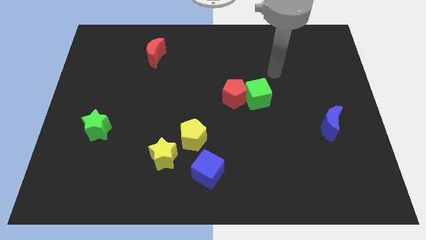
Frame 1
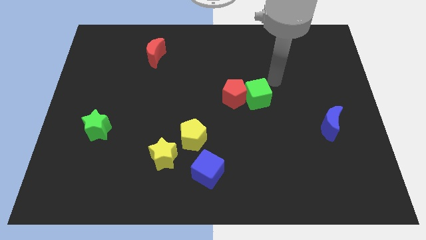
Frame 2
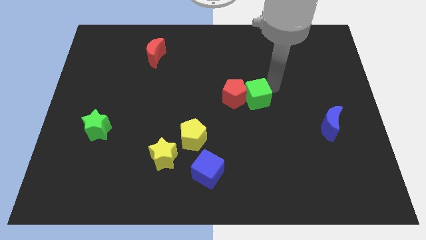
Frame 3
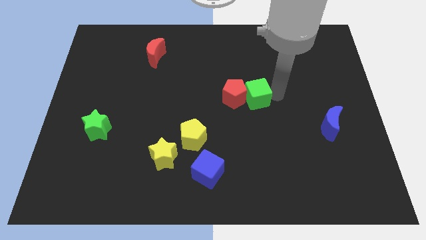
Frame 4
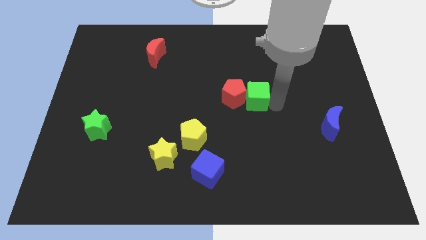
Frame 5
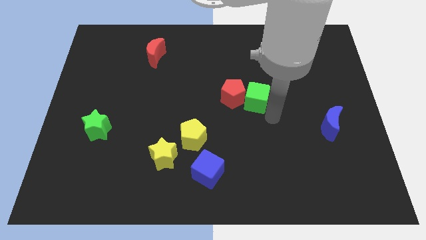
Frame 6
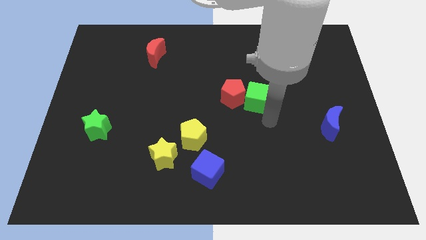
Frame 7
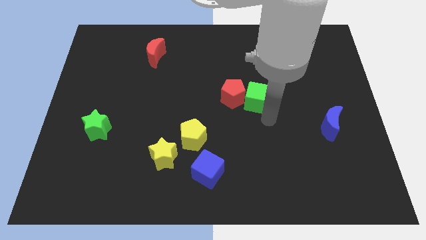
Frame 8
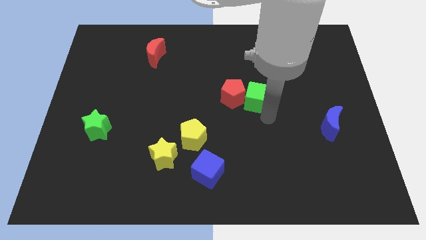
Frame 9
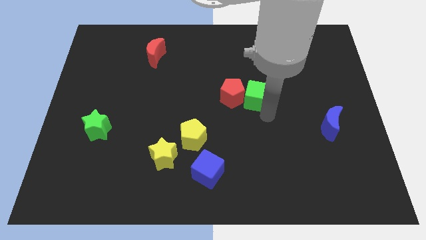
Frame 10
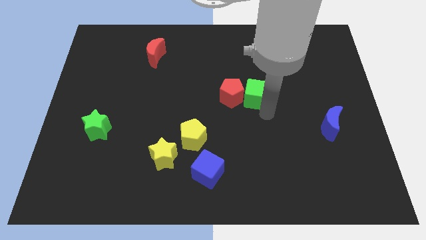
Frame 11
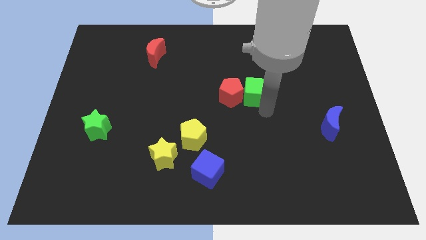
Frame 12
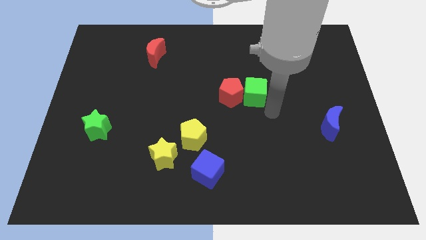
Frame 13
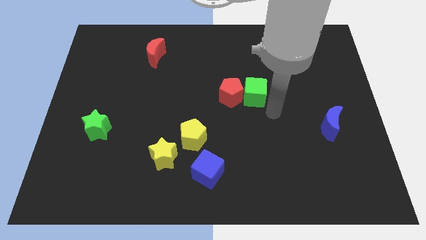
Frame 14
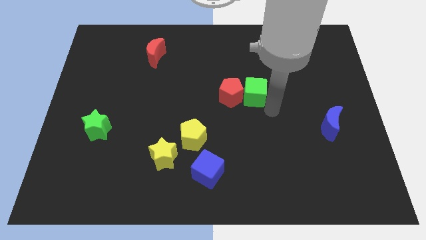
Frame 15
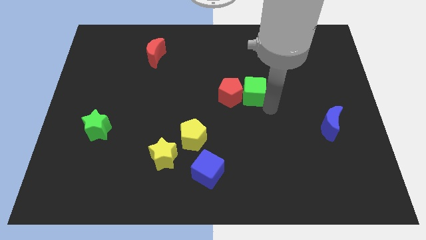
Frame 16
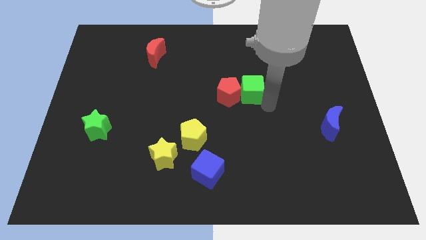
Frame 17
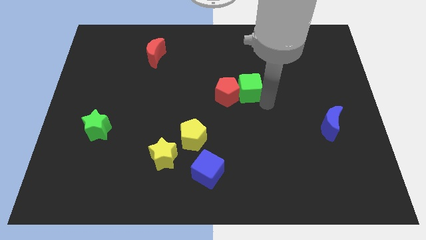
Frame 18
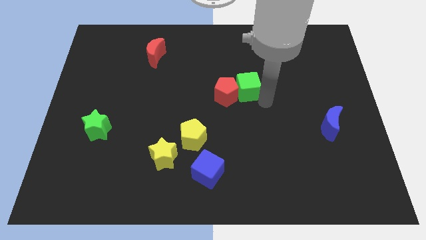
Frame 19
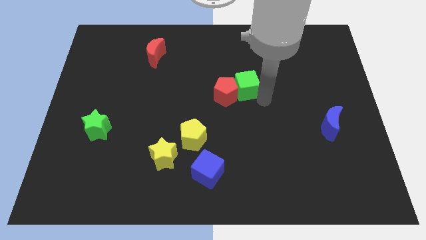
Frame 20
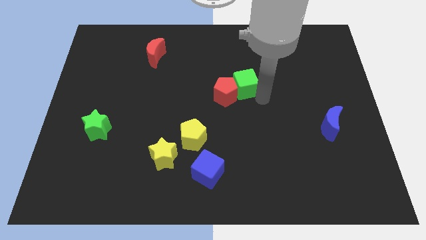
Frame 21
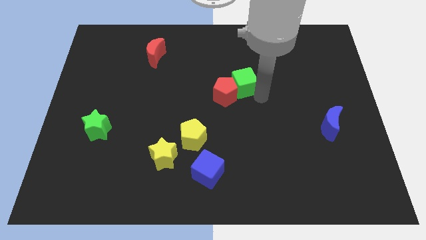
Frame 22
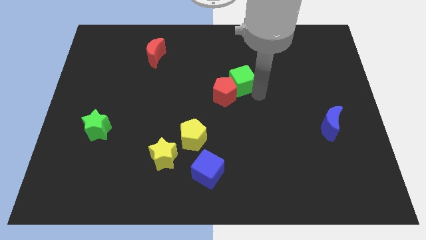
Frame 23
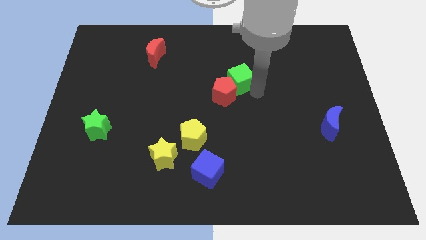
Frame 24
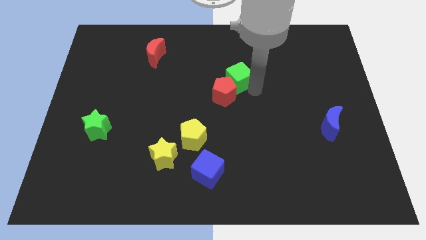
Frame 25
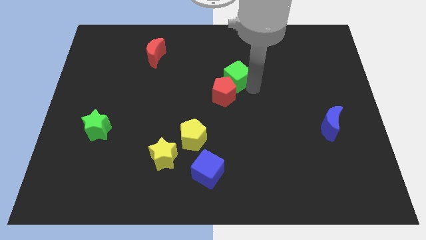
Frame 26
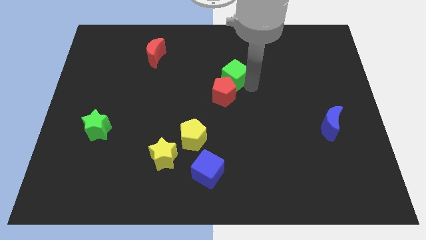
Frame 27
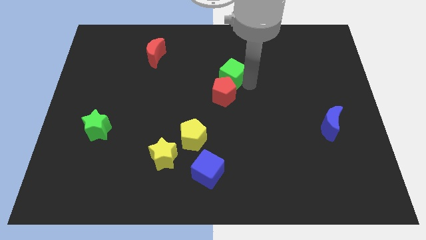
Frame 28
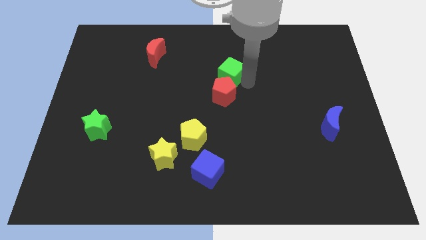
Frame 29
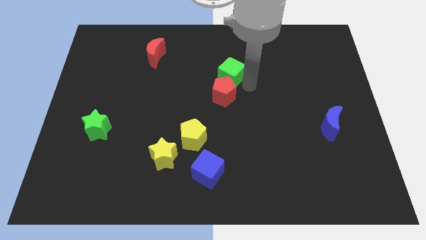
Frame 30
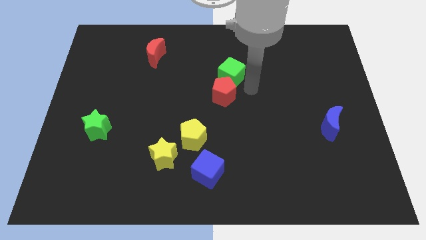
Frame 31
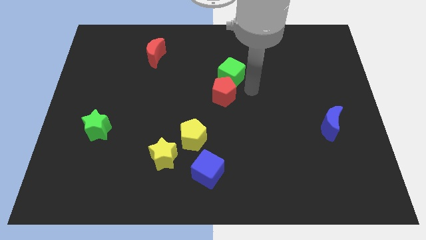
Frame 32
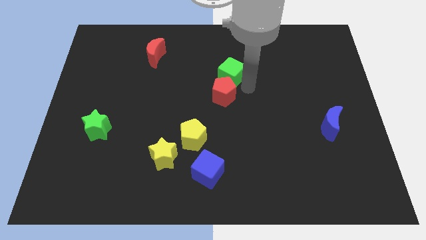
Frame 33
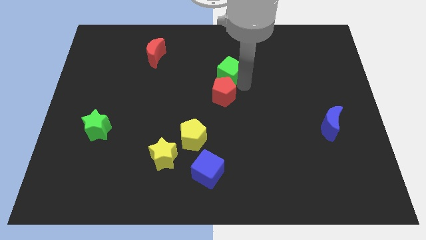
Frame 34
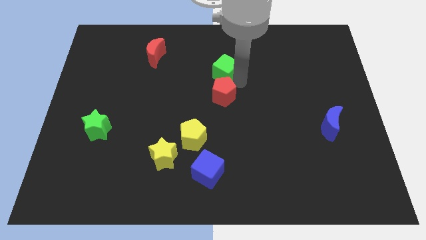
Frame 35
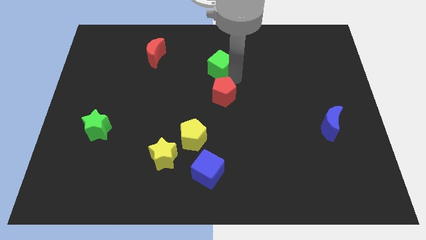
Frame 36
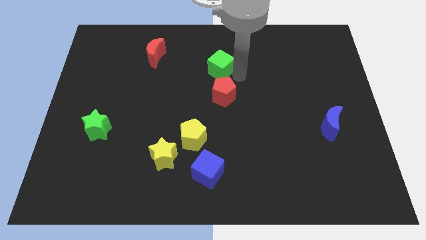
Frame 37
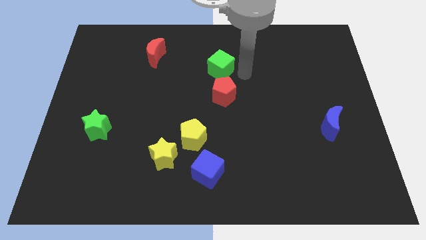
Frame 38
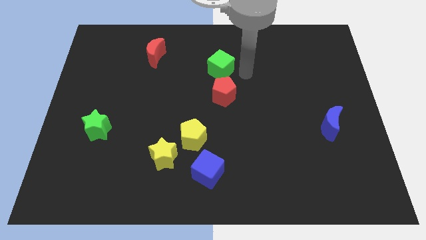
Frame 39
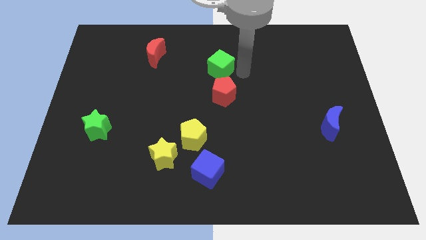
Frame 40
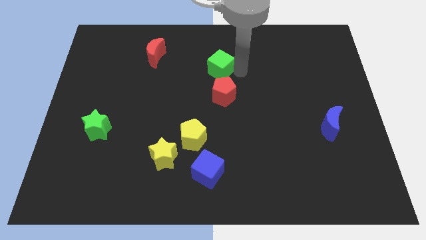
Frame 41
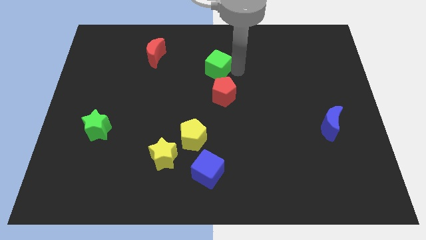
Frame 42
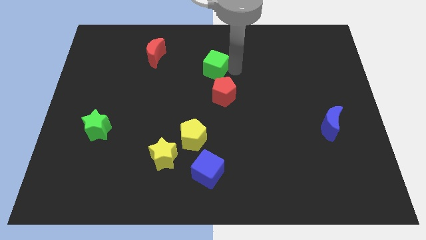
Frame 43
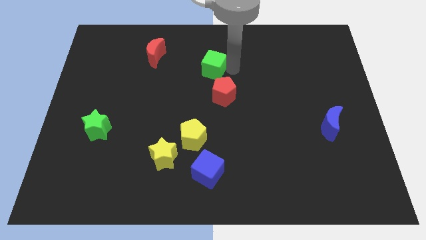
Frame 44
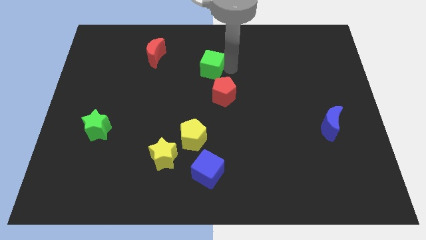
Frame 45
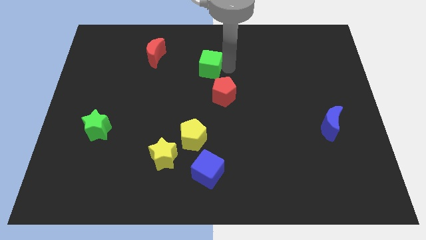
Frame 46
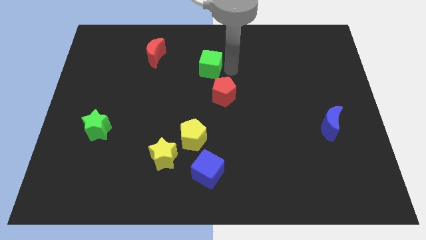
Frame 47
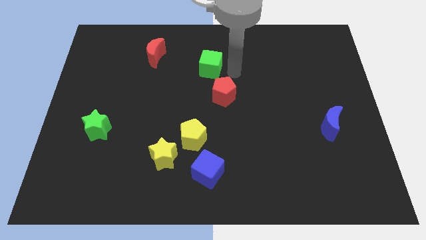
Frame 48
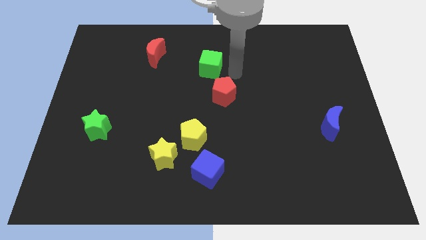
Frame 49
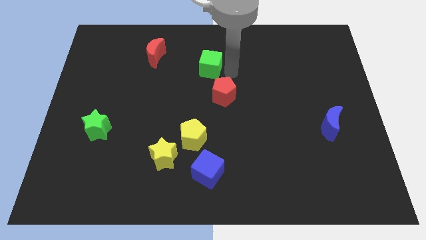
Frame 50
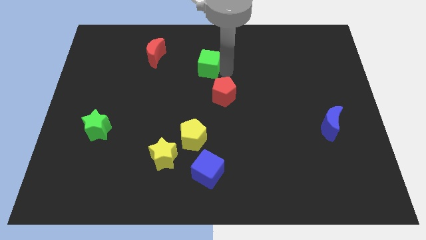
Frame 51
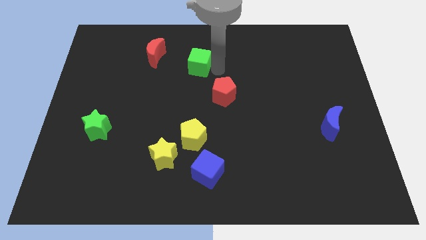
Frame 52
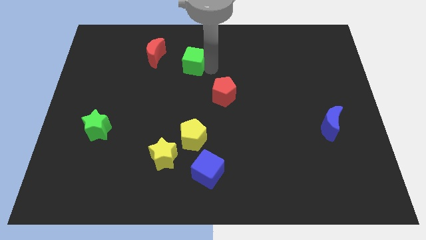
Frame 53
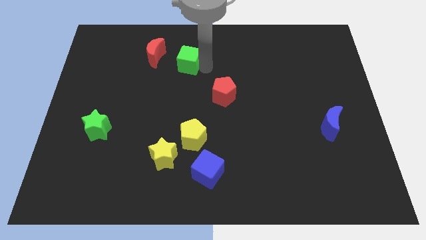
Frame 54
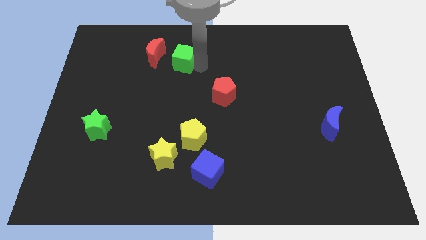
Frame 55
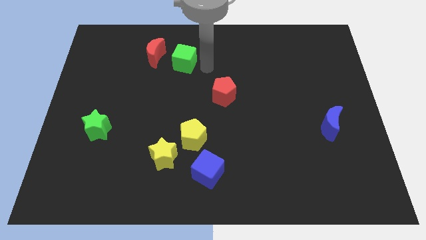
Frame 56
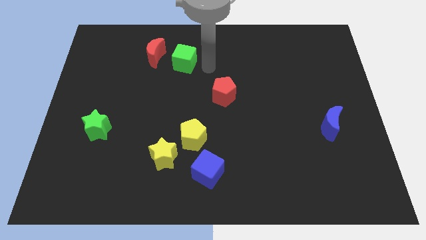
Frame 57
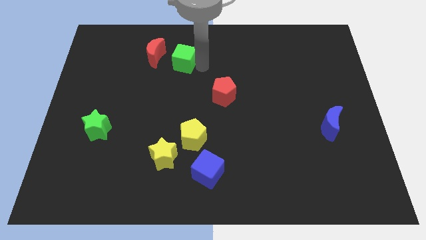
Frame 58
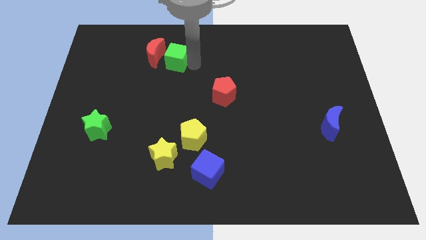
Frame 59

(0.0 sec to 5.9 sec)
put the green cube next to the red moon

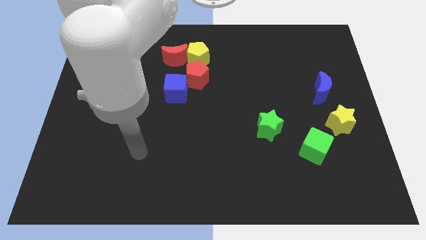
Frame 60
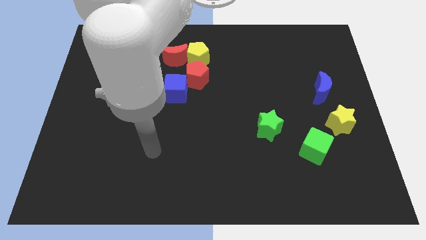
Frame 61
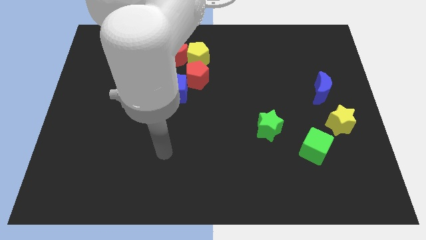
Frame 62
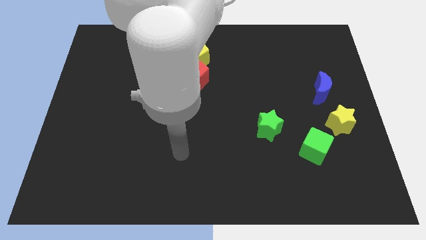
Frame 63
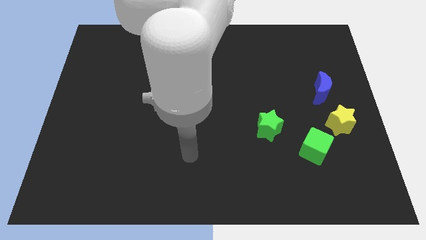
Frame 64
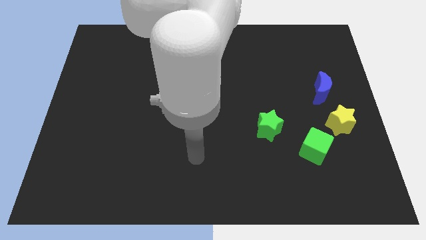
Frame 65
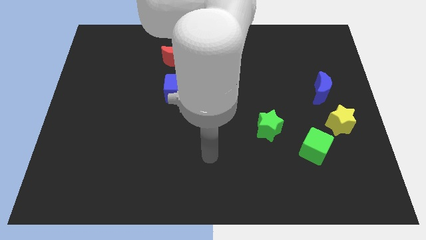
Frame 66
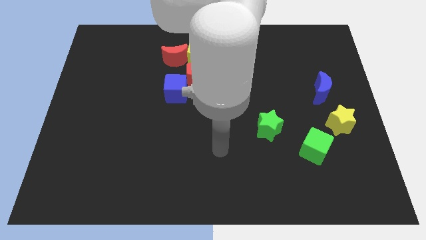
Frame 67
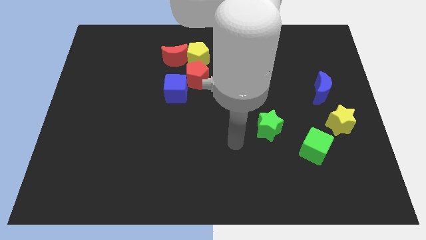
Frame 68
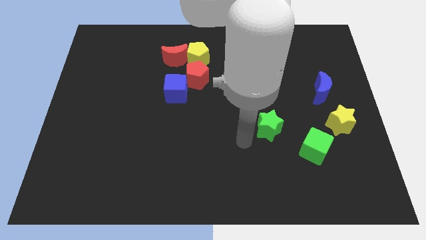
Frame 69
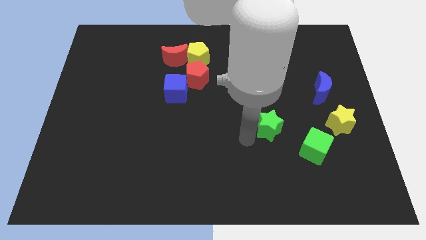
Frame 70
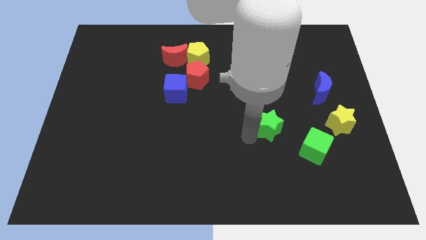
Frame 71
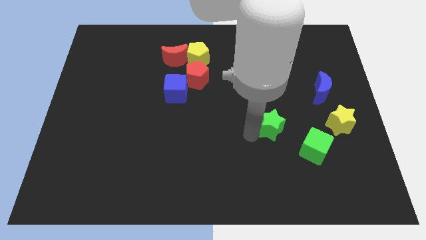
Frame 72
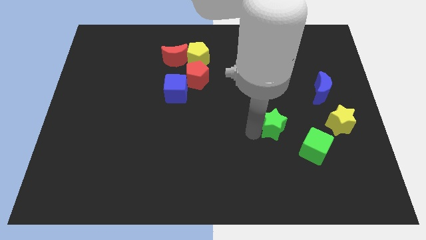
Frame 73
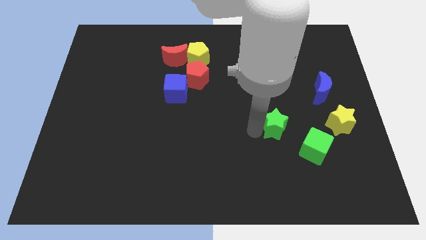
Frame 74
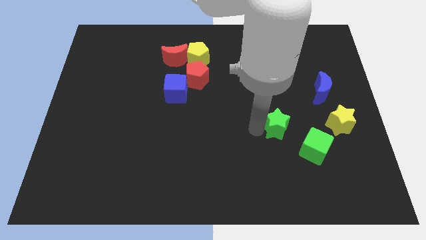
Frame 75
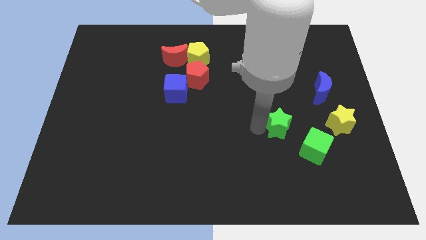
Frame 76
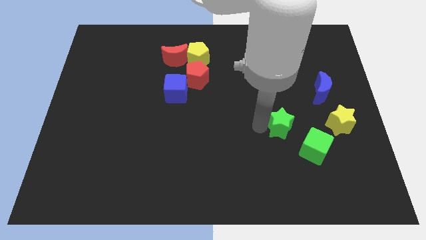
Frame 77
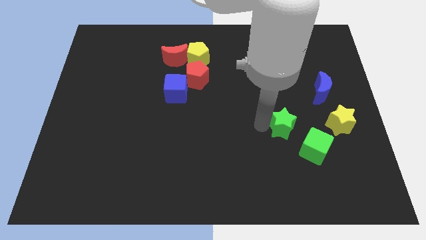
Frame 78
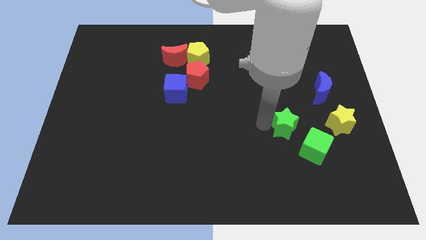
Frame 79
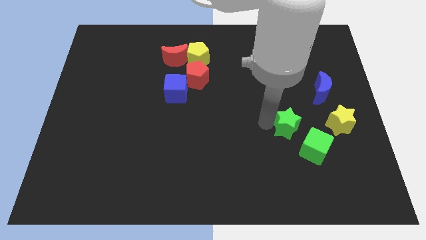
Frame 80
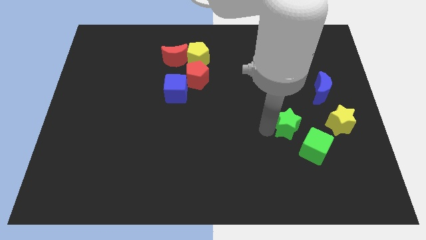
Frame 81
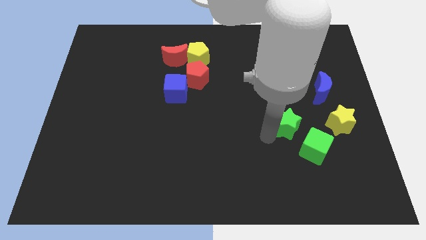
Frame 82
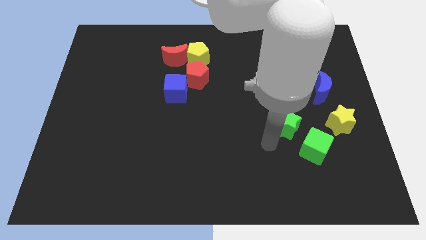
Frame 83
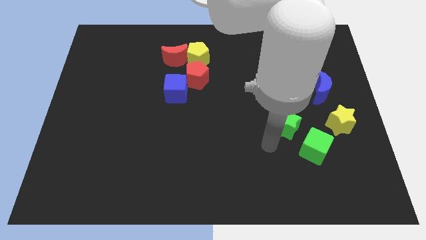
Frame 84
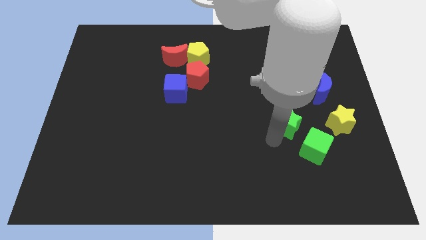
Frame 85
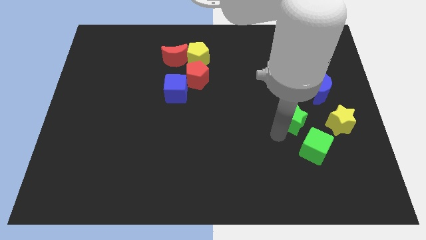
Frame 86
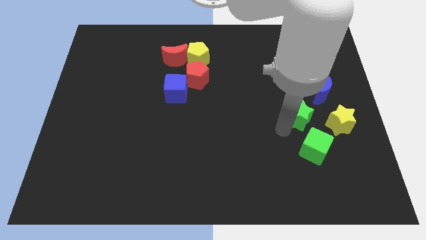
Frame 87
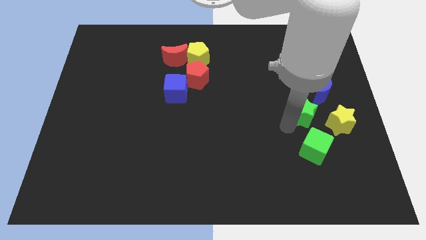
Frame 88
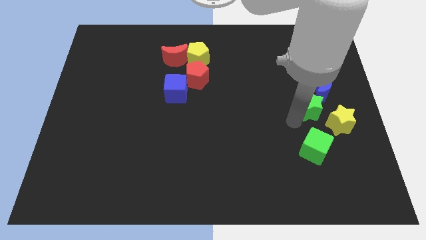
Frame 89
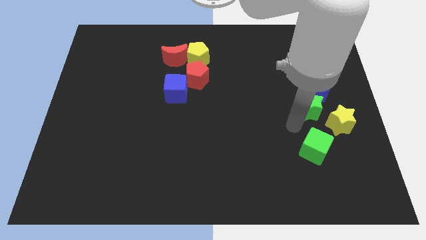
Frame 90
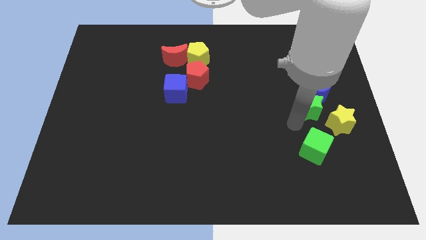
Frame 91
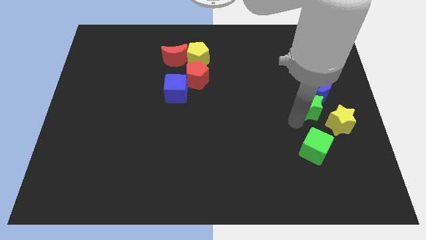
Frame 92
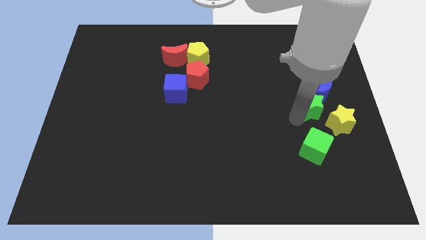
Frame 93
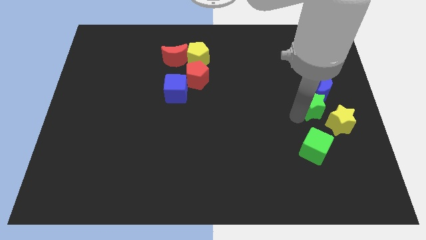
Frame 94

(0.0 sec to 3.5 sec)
slide the green star close to the blue moon
